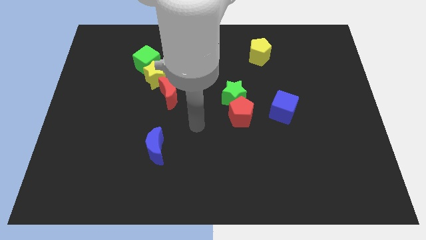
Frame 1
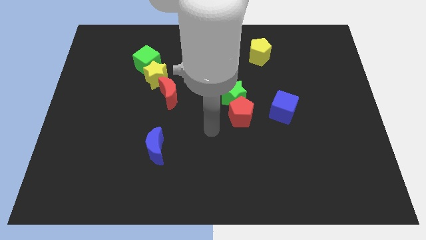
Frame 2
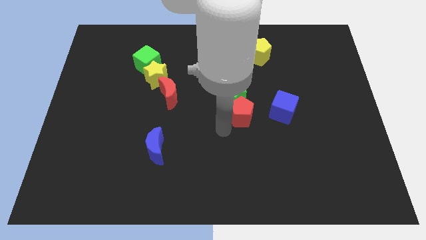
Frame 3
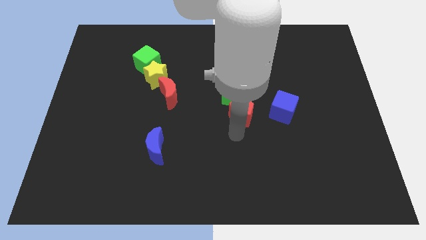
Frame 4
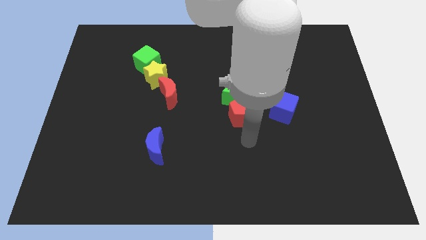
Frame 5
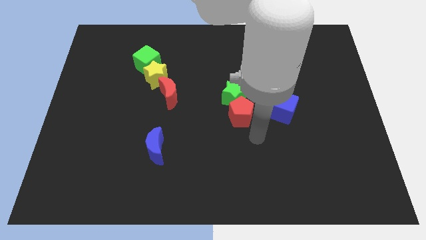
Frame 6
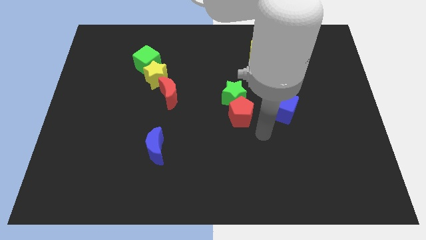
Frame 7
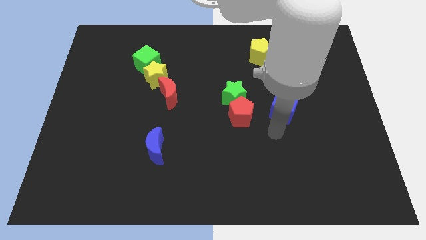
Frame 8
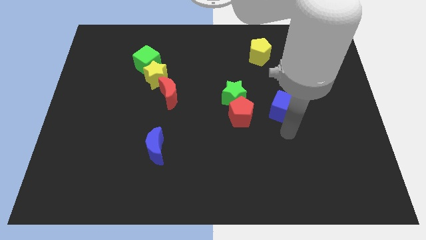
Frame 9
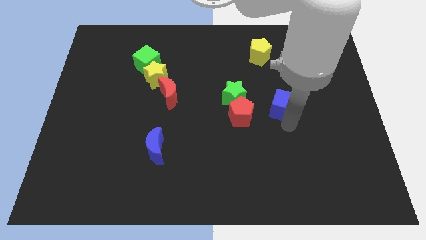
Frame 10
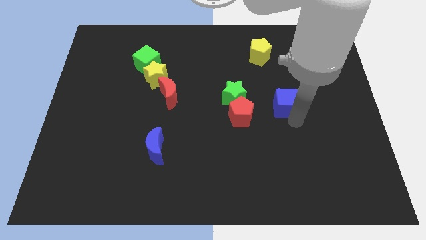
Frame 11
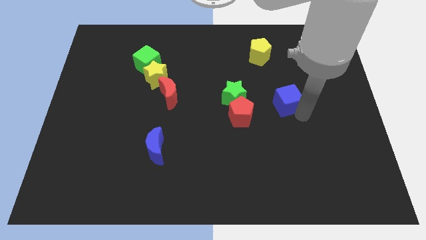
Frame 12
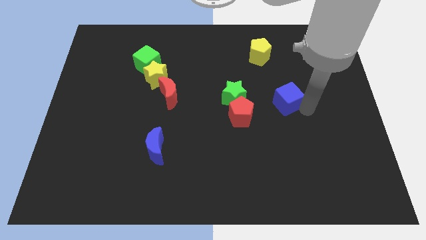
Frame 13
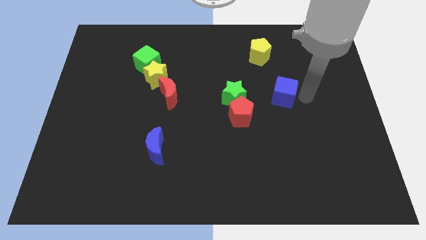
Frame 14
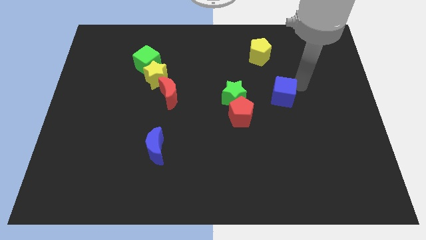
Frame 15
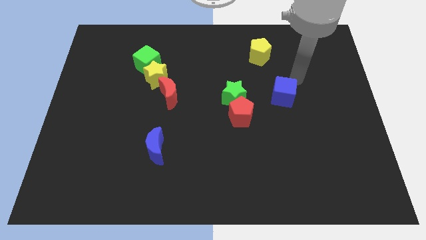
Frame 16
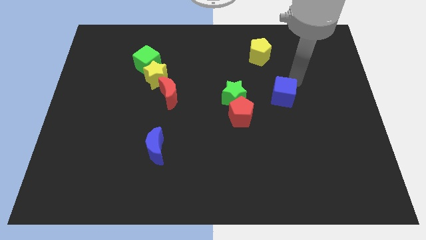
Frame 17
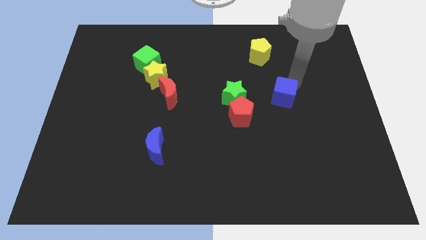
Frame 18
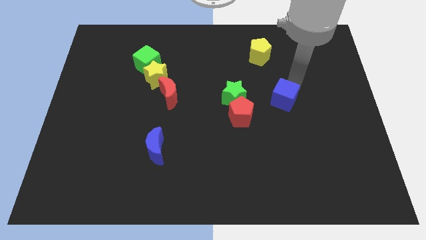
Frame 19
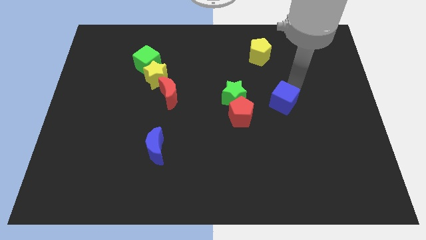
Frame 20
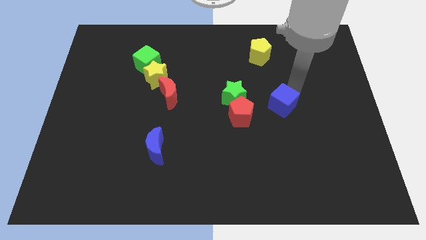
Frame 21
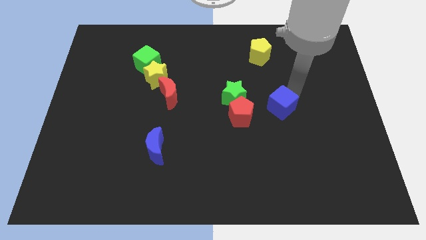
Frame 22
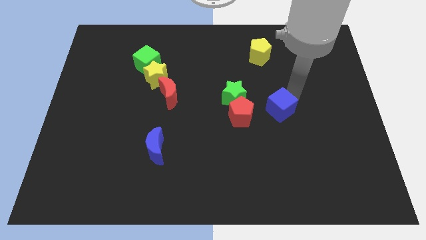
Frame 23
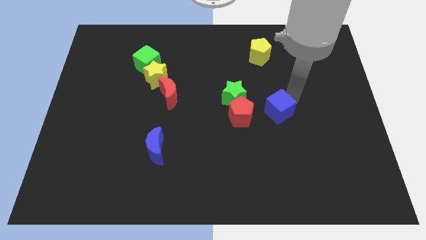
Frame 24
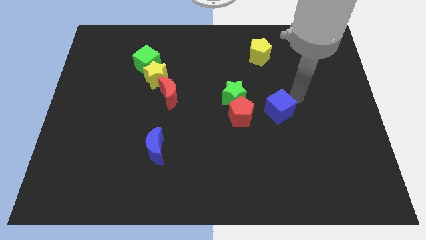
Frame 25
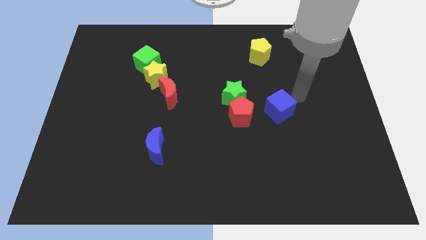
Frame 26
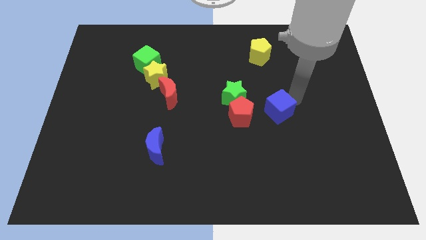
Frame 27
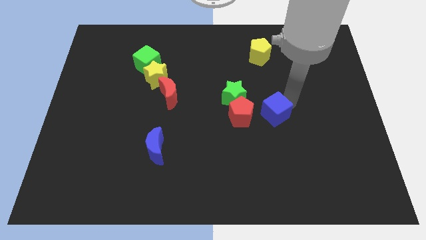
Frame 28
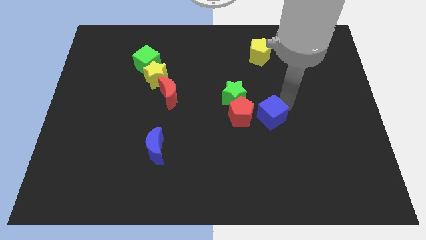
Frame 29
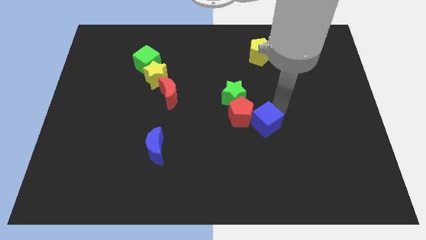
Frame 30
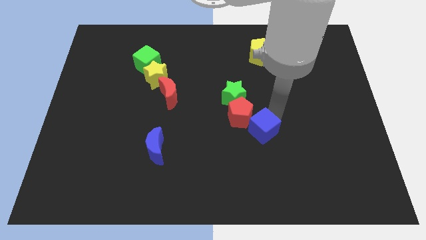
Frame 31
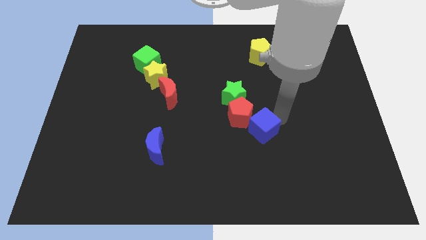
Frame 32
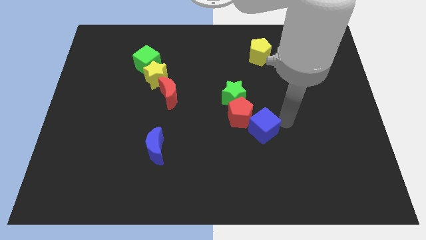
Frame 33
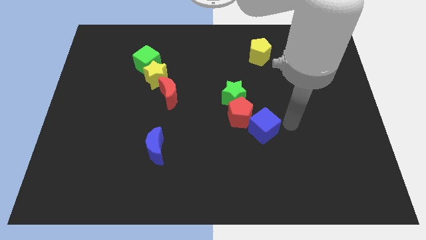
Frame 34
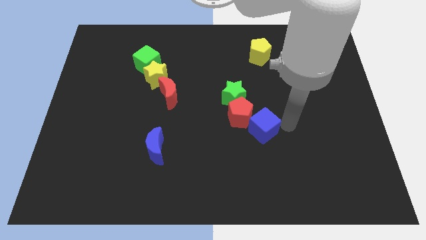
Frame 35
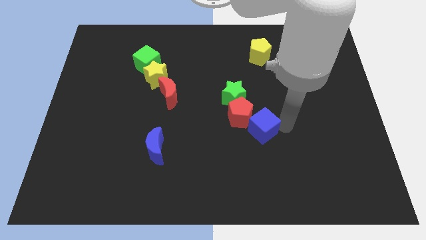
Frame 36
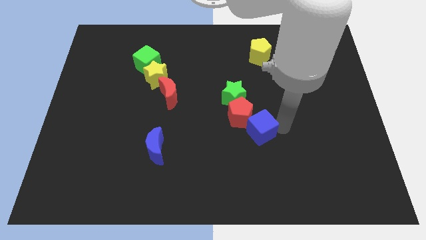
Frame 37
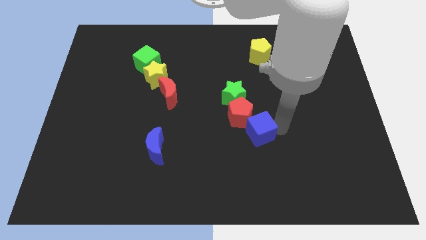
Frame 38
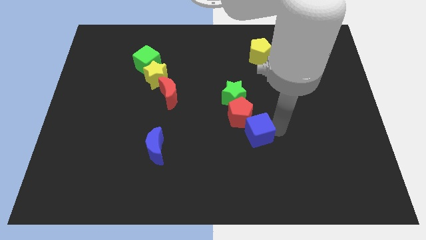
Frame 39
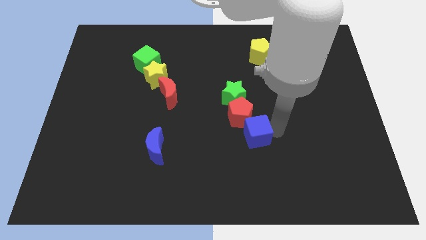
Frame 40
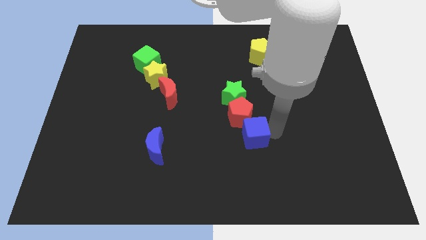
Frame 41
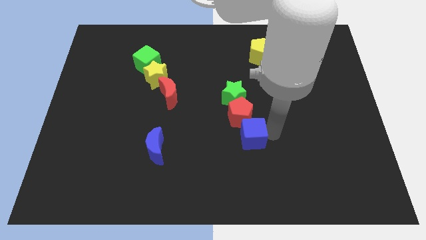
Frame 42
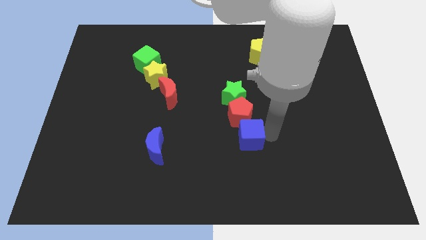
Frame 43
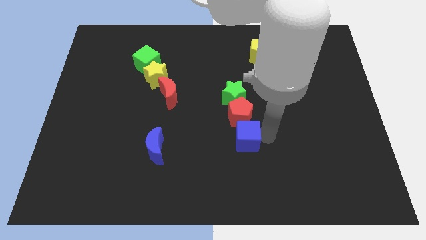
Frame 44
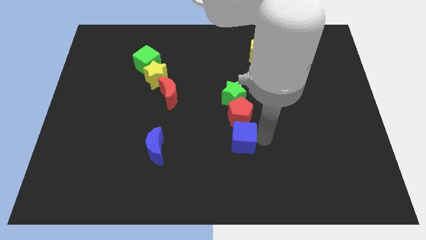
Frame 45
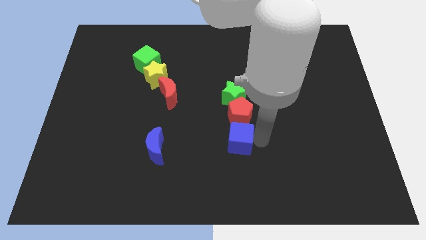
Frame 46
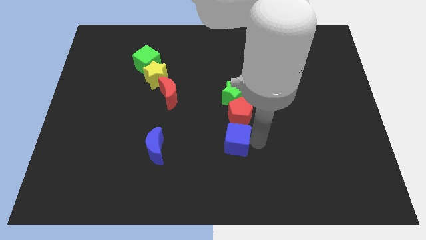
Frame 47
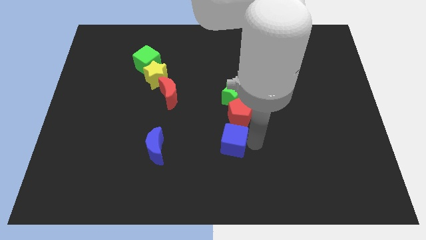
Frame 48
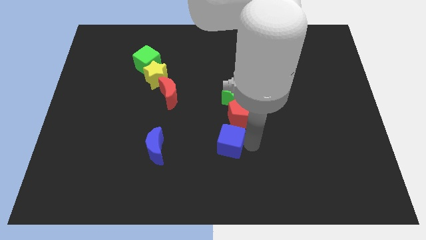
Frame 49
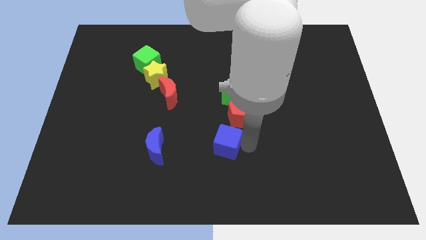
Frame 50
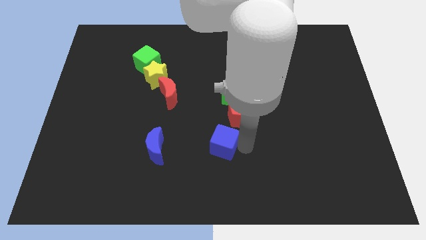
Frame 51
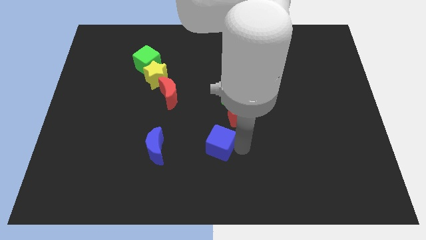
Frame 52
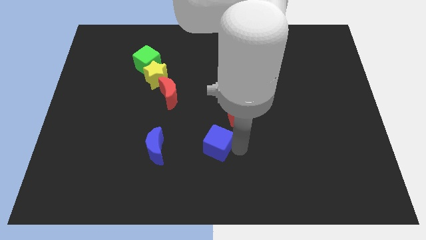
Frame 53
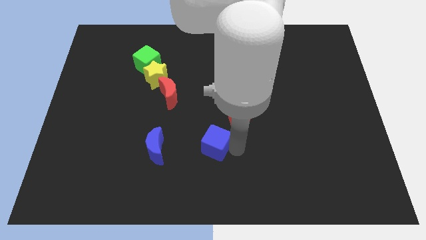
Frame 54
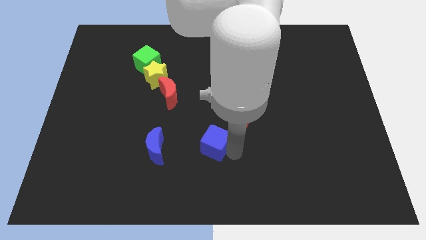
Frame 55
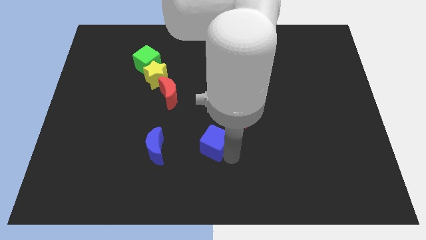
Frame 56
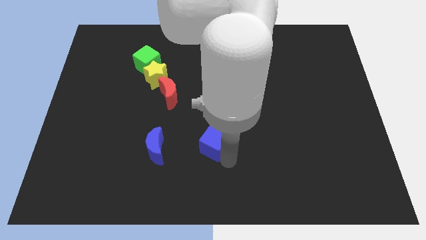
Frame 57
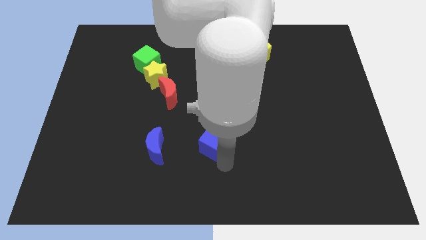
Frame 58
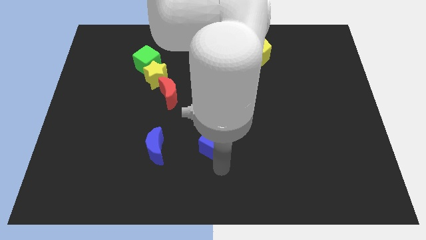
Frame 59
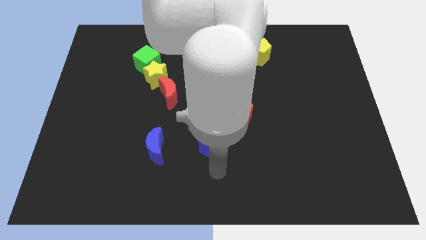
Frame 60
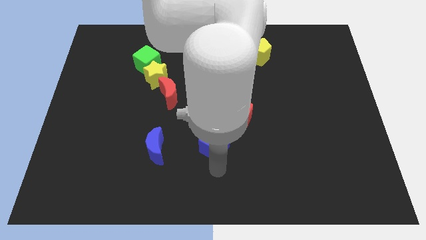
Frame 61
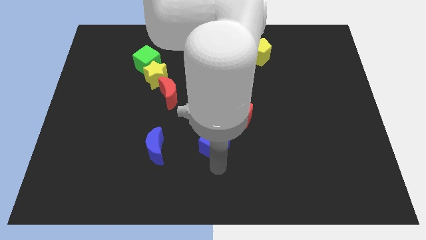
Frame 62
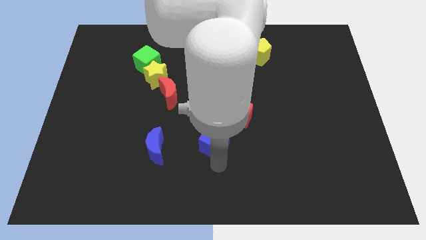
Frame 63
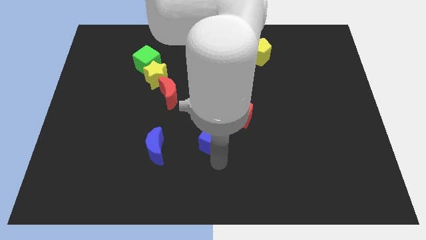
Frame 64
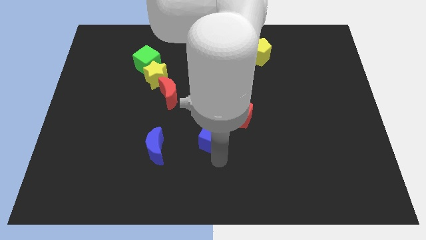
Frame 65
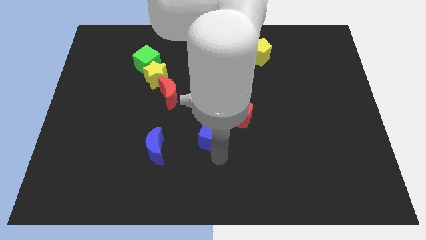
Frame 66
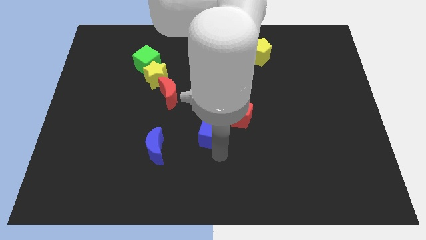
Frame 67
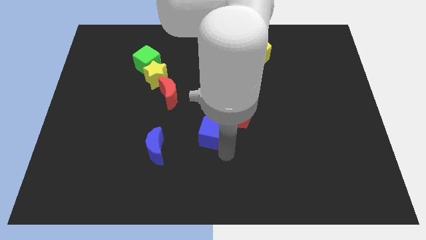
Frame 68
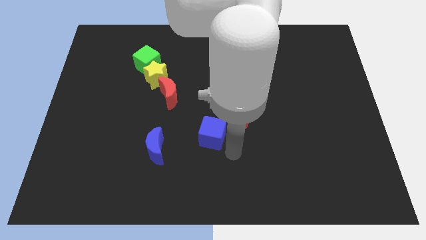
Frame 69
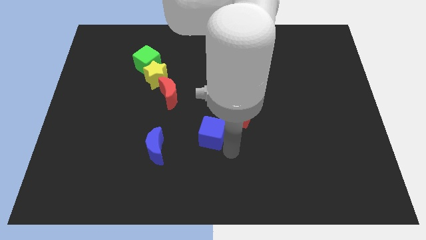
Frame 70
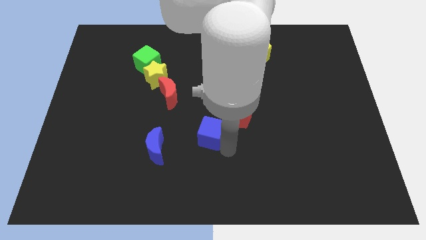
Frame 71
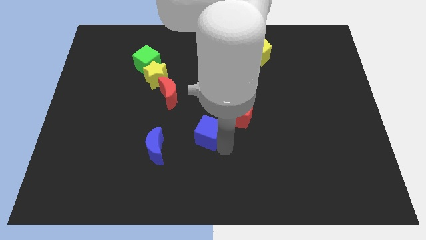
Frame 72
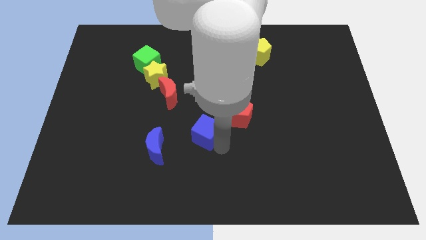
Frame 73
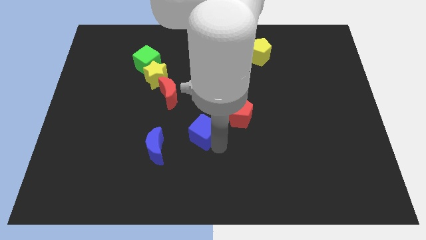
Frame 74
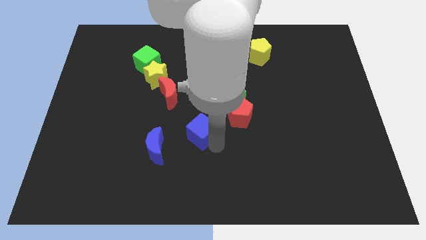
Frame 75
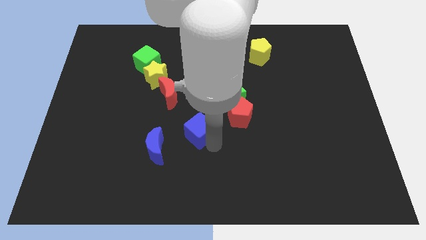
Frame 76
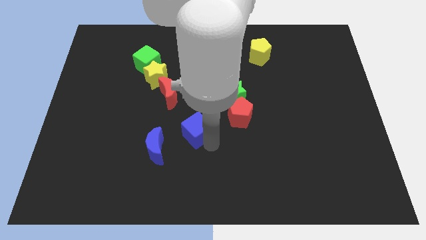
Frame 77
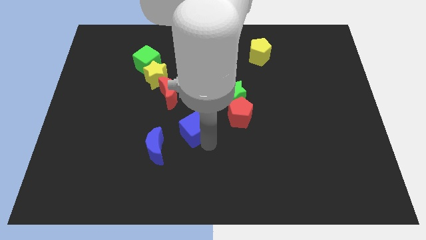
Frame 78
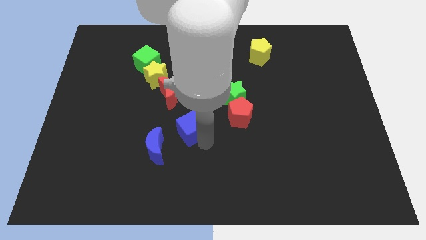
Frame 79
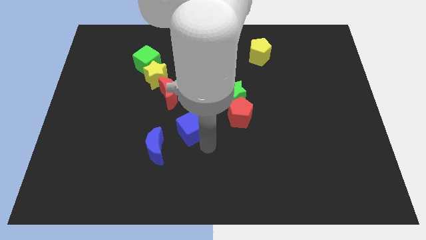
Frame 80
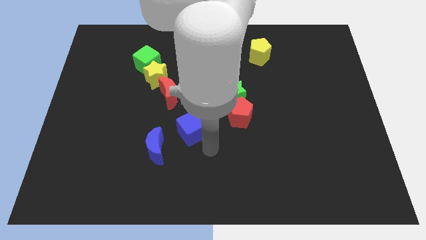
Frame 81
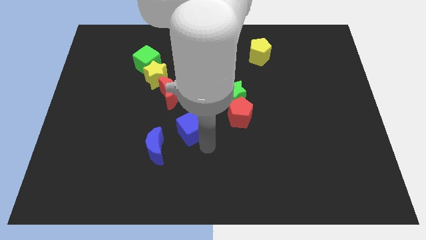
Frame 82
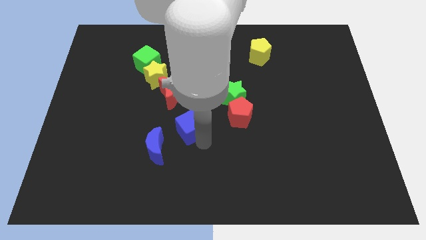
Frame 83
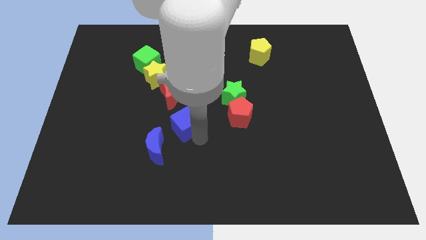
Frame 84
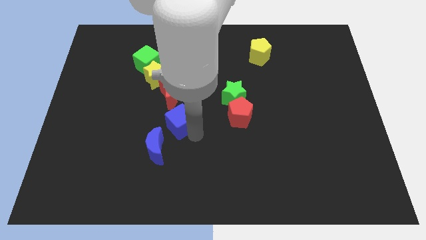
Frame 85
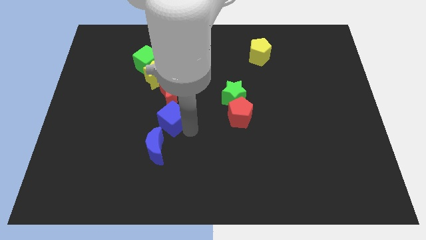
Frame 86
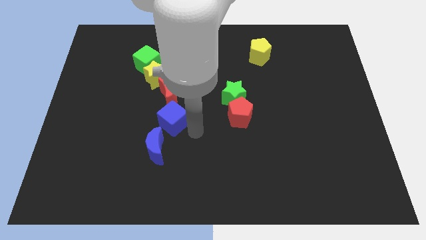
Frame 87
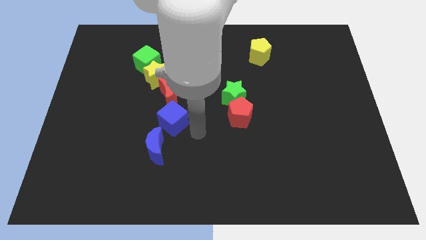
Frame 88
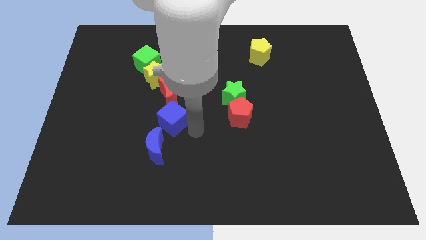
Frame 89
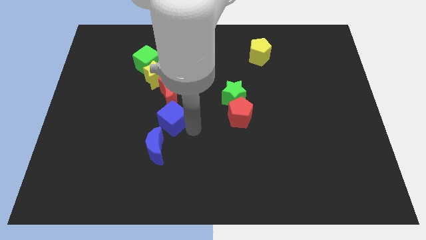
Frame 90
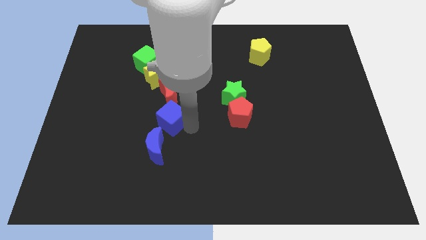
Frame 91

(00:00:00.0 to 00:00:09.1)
slide the blue cube to the bottom of the yellow star
